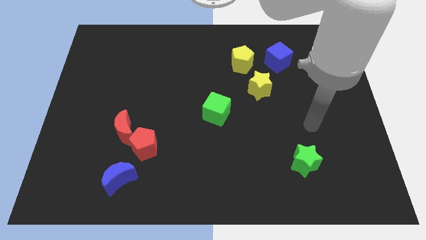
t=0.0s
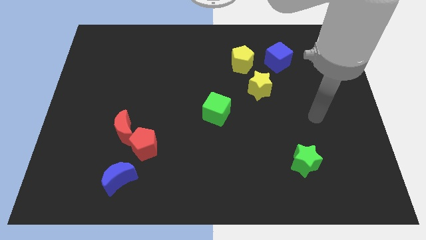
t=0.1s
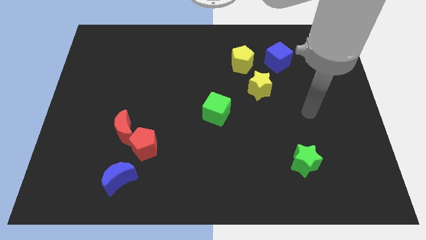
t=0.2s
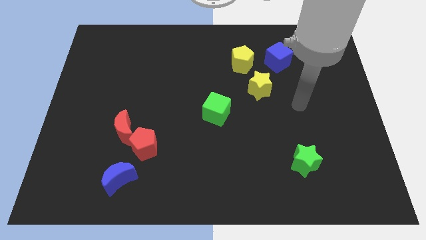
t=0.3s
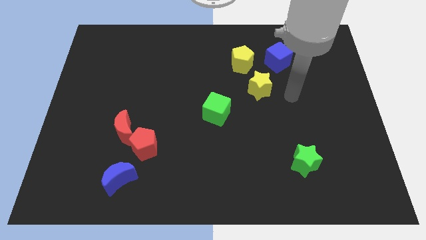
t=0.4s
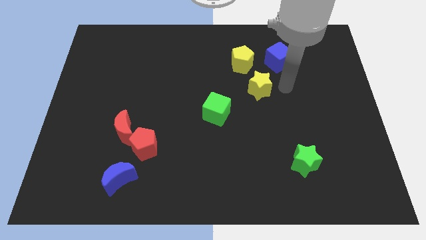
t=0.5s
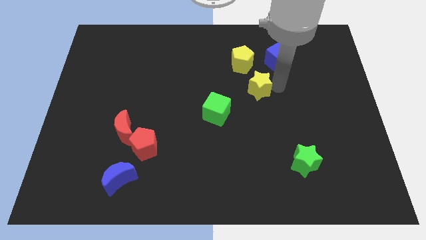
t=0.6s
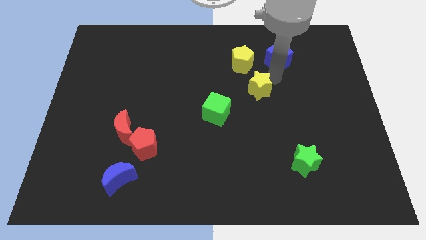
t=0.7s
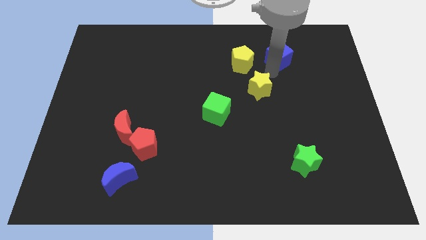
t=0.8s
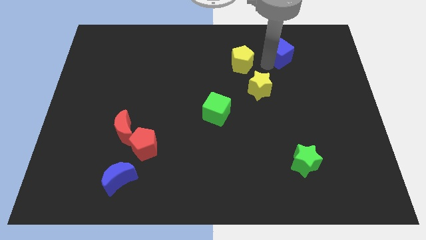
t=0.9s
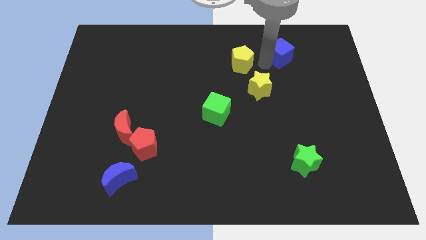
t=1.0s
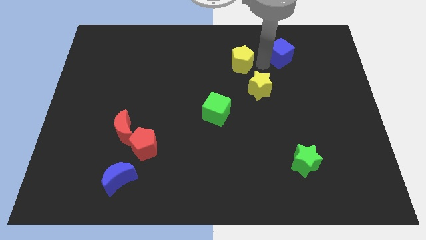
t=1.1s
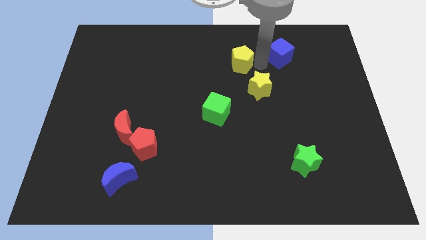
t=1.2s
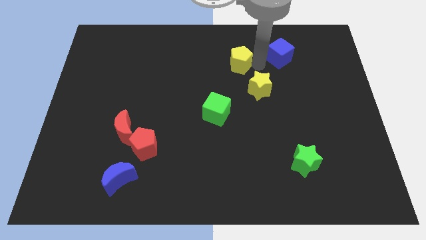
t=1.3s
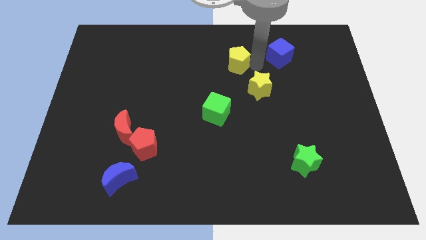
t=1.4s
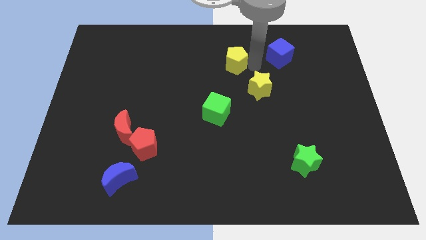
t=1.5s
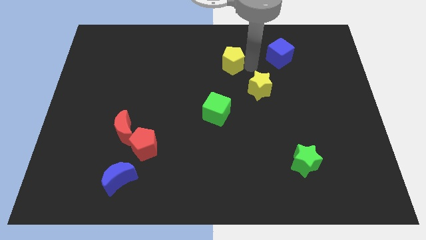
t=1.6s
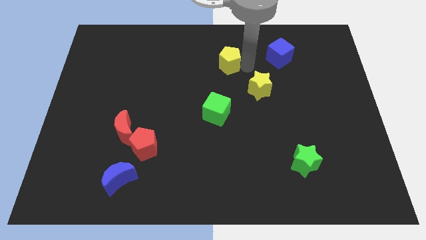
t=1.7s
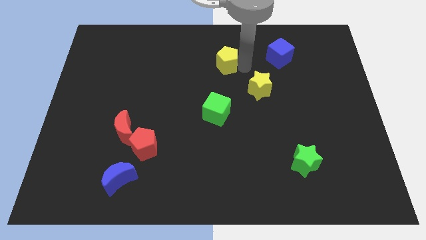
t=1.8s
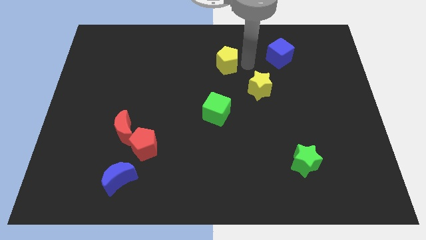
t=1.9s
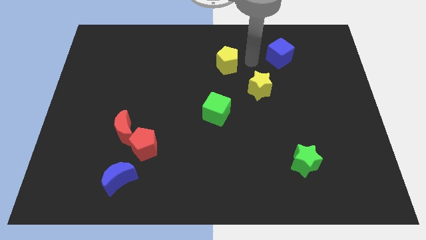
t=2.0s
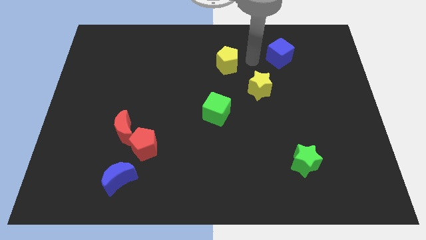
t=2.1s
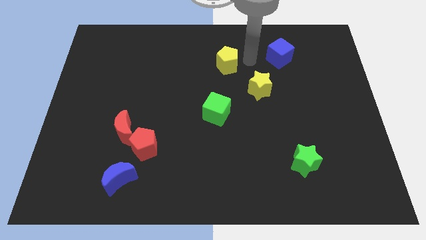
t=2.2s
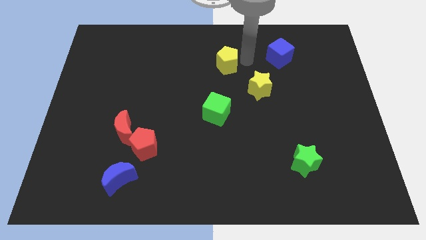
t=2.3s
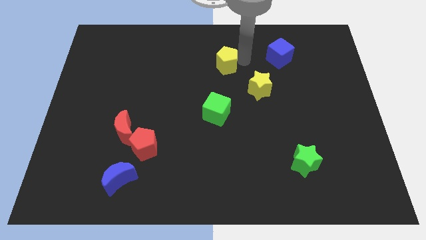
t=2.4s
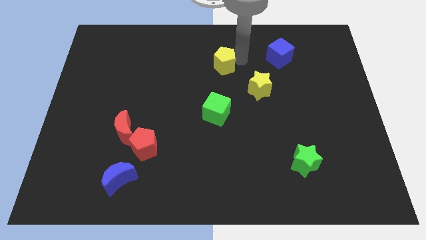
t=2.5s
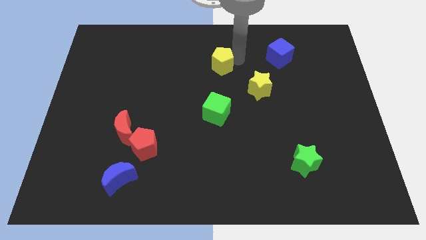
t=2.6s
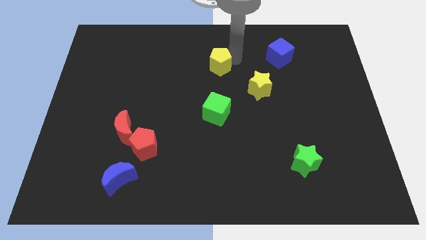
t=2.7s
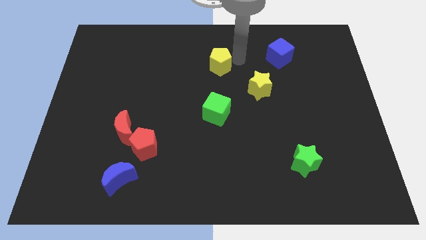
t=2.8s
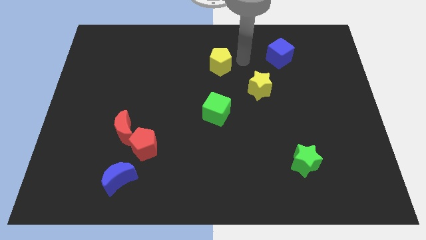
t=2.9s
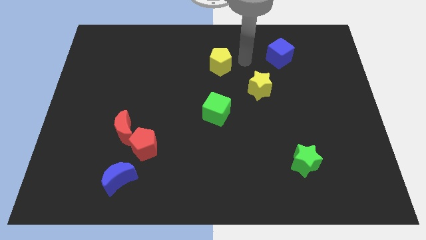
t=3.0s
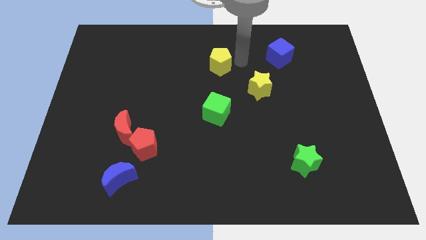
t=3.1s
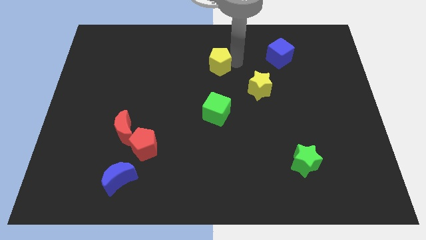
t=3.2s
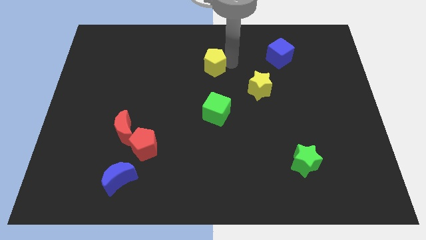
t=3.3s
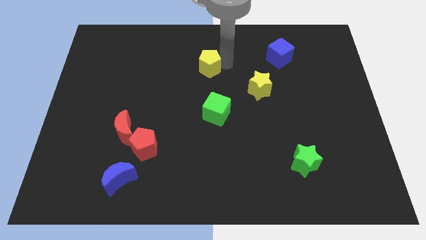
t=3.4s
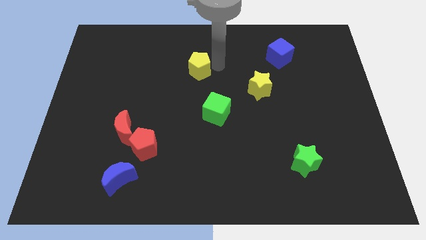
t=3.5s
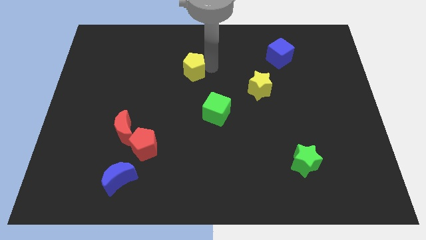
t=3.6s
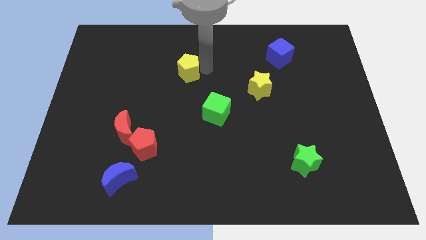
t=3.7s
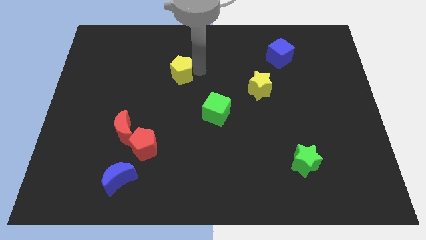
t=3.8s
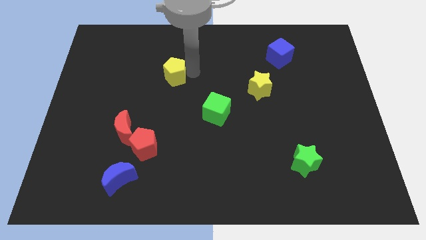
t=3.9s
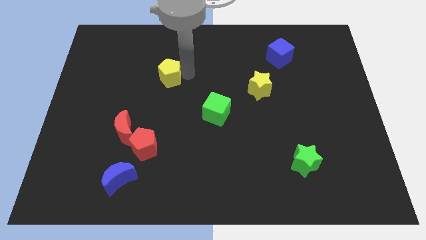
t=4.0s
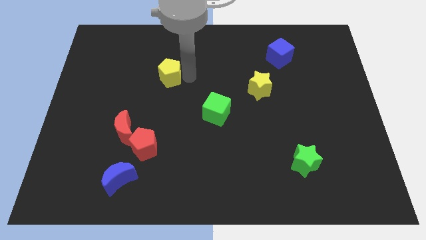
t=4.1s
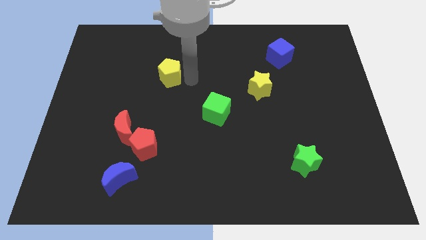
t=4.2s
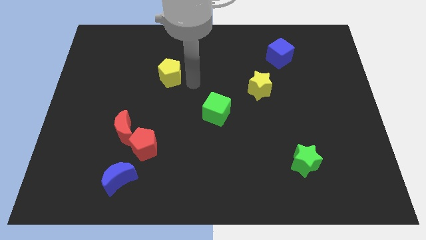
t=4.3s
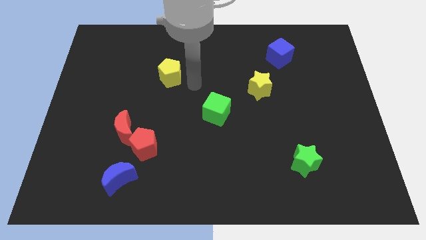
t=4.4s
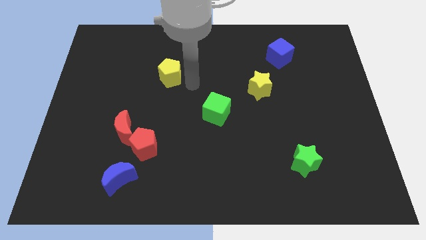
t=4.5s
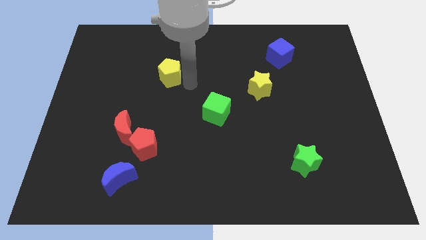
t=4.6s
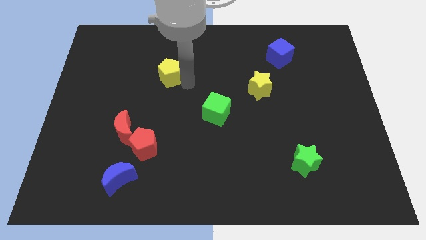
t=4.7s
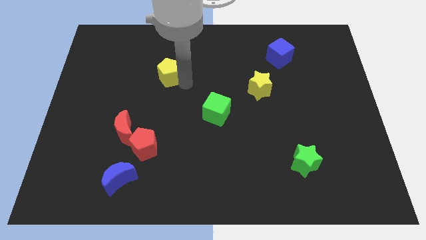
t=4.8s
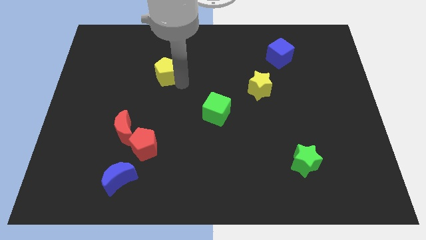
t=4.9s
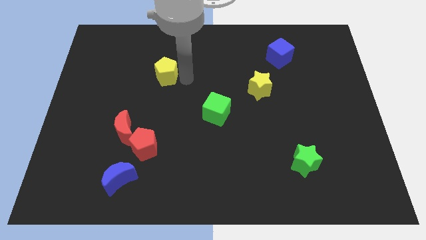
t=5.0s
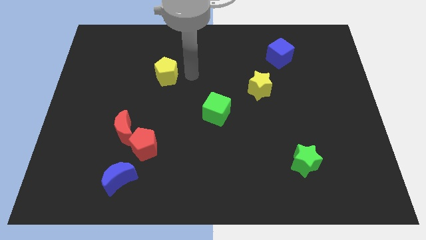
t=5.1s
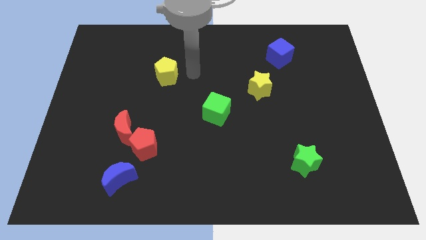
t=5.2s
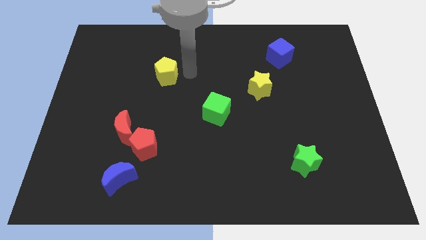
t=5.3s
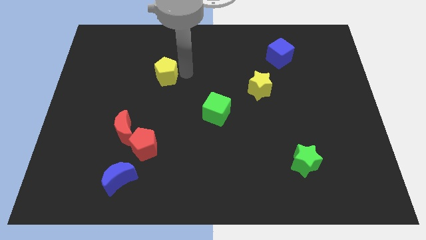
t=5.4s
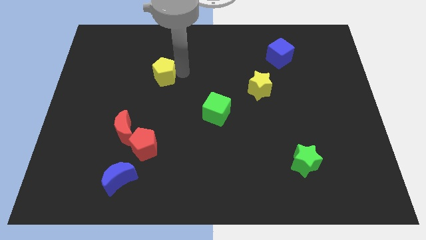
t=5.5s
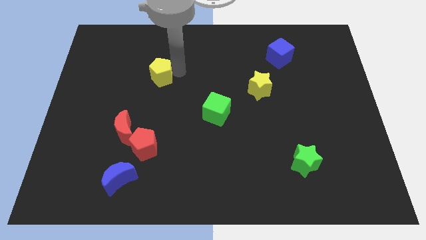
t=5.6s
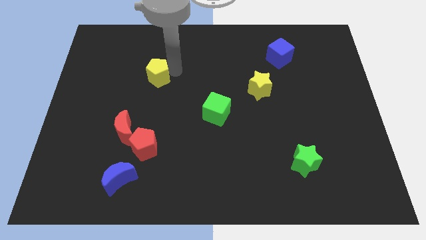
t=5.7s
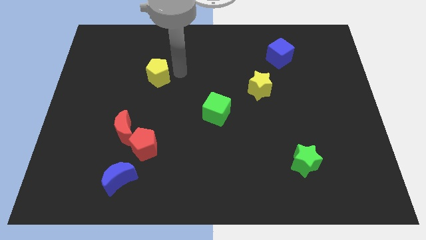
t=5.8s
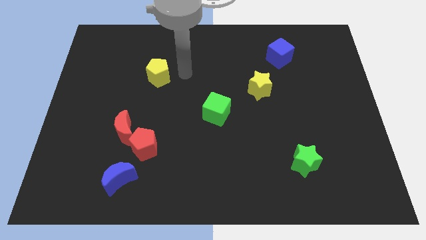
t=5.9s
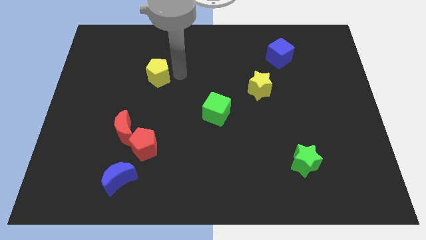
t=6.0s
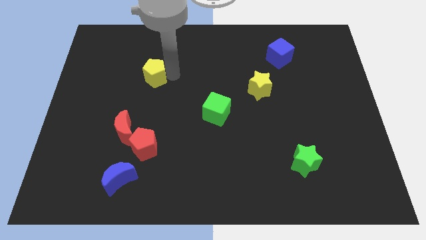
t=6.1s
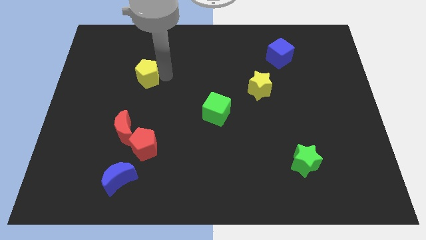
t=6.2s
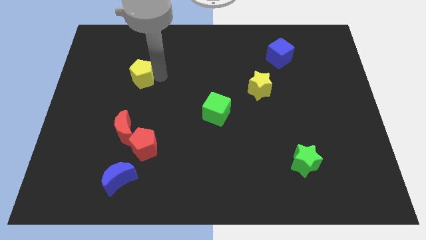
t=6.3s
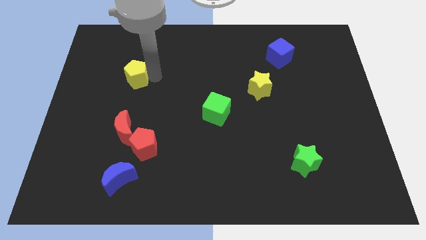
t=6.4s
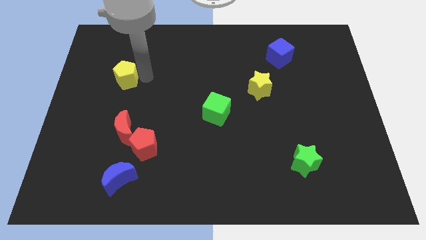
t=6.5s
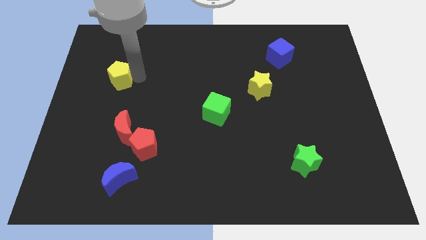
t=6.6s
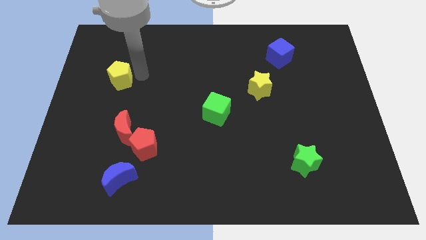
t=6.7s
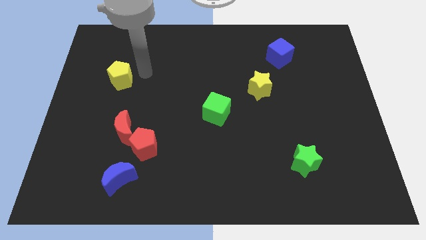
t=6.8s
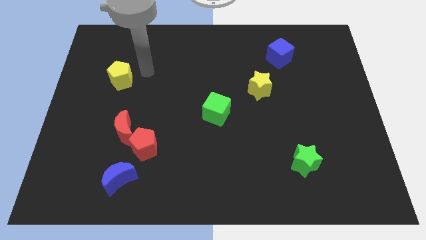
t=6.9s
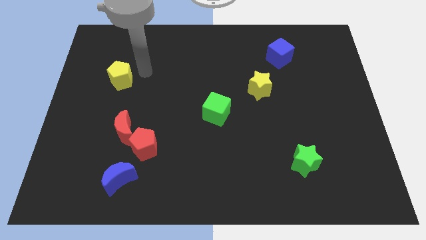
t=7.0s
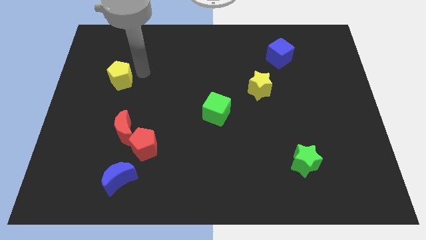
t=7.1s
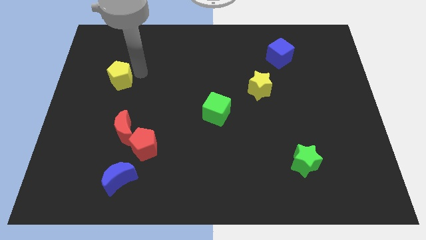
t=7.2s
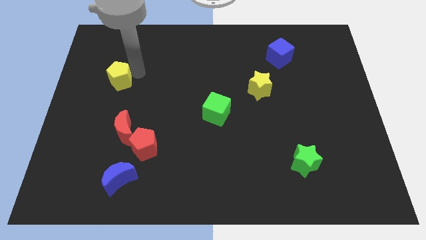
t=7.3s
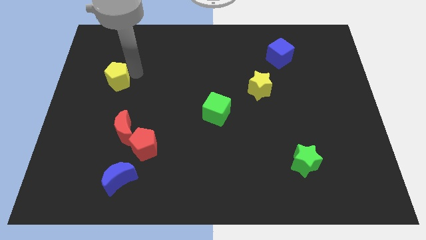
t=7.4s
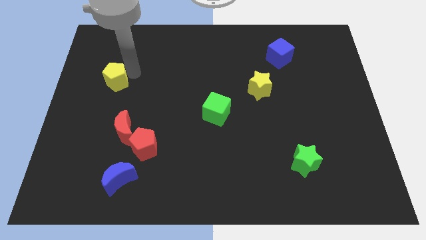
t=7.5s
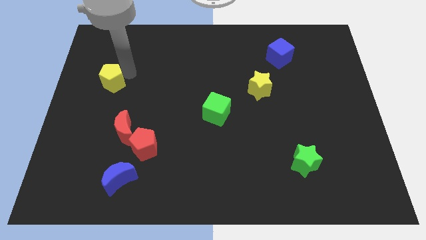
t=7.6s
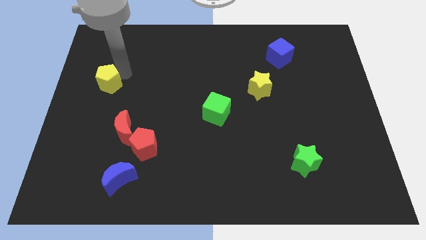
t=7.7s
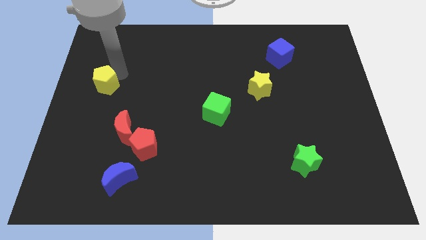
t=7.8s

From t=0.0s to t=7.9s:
push the yellow pentagon to the left side
